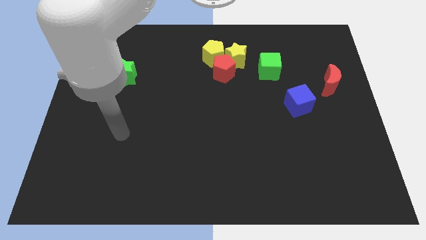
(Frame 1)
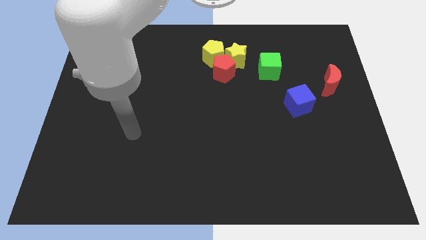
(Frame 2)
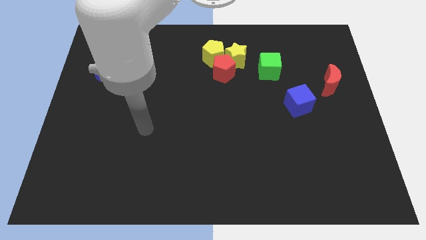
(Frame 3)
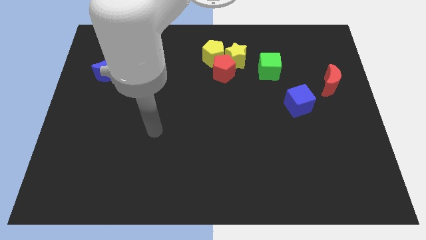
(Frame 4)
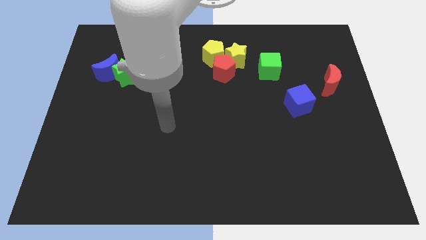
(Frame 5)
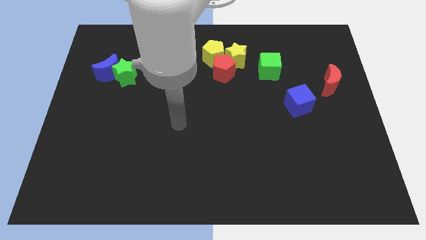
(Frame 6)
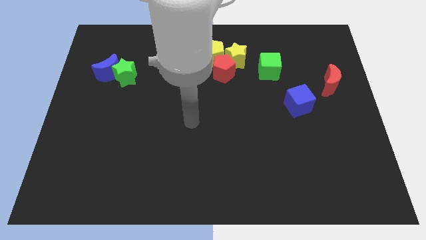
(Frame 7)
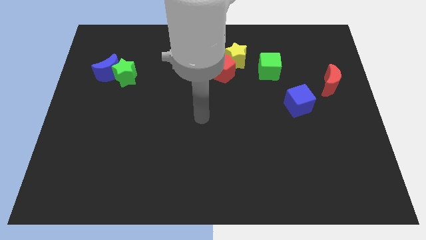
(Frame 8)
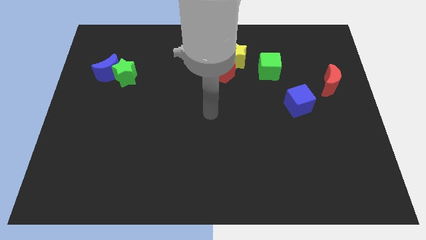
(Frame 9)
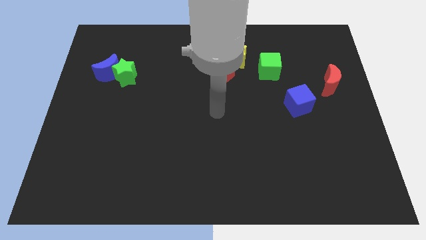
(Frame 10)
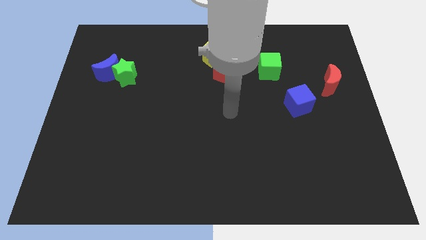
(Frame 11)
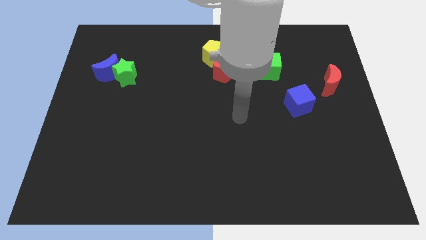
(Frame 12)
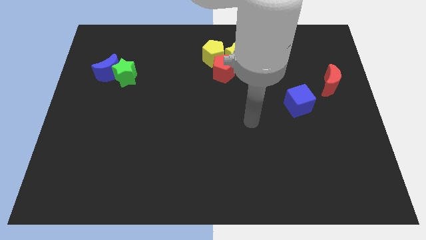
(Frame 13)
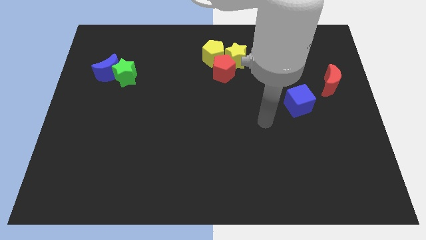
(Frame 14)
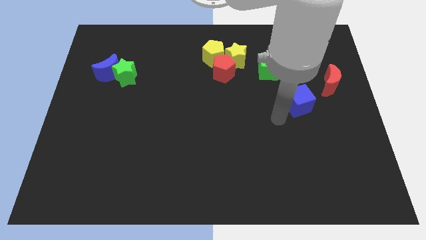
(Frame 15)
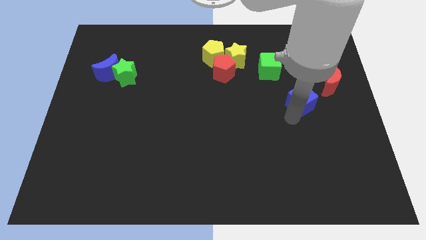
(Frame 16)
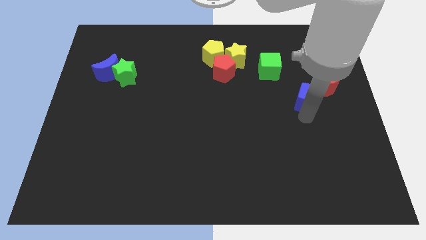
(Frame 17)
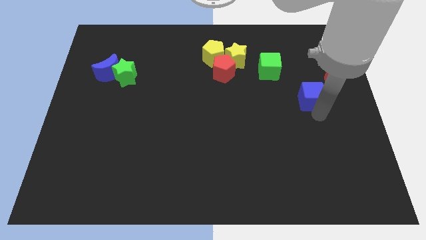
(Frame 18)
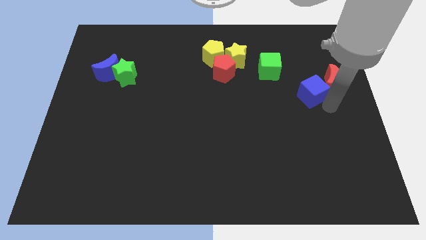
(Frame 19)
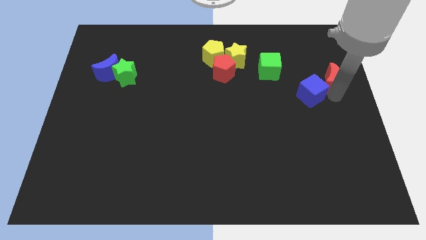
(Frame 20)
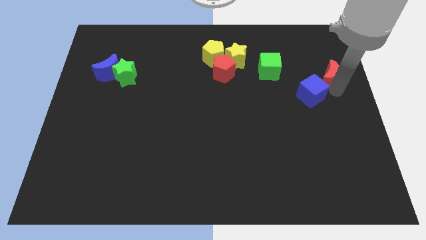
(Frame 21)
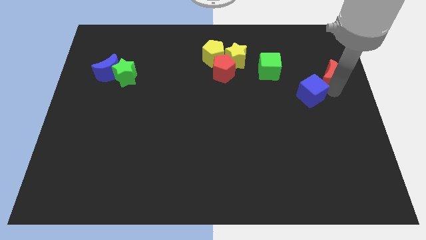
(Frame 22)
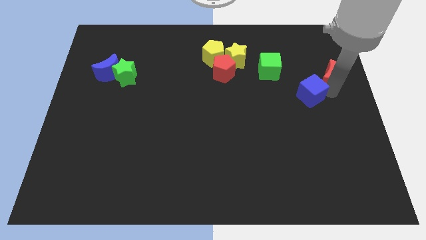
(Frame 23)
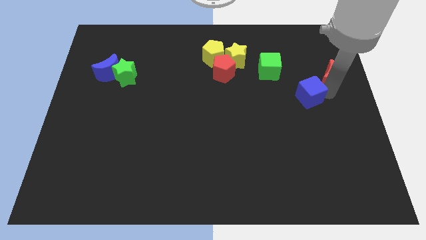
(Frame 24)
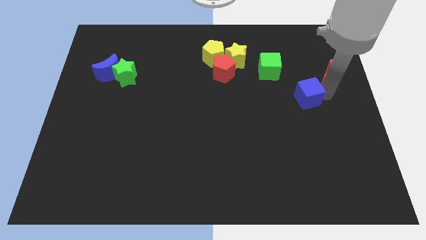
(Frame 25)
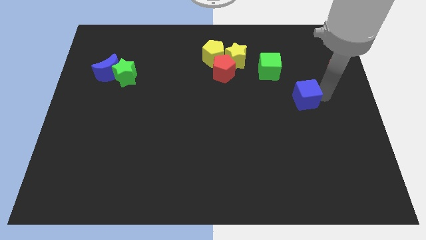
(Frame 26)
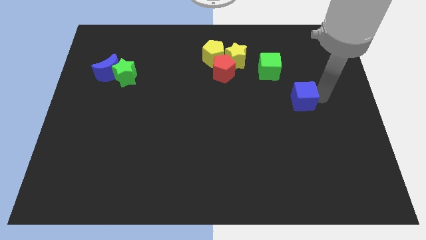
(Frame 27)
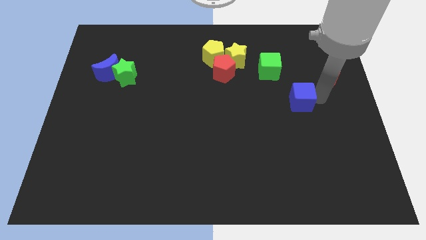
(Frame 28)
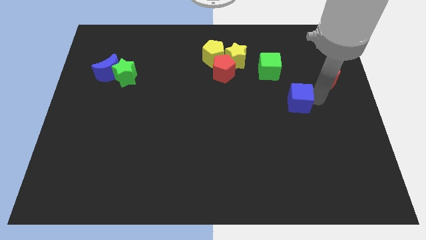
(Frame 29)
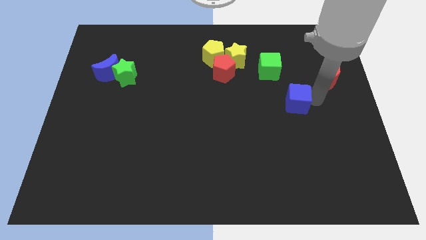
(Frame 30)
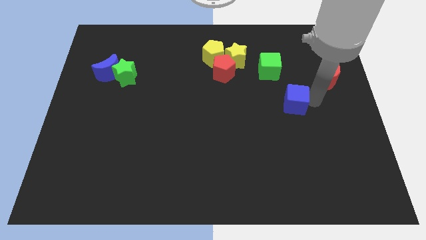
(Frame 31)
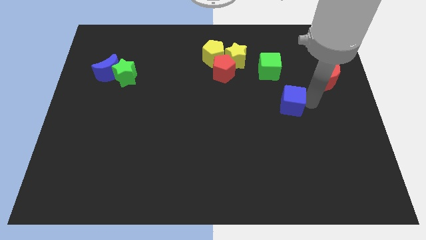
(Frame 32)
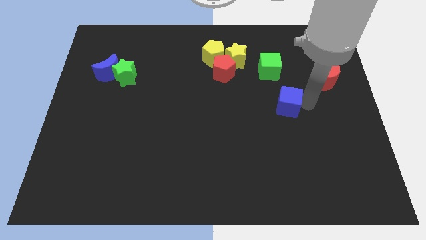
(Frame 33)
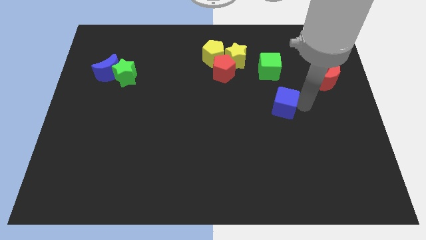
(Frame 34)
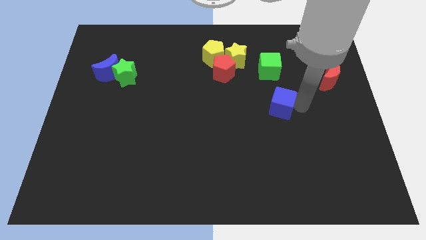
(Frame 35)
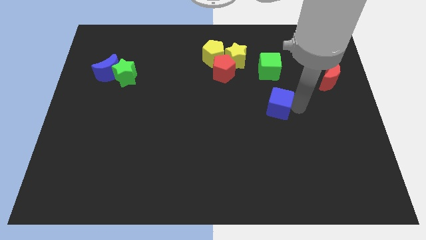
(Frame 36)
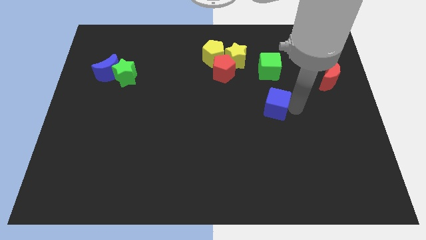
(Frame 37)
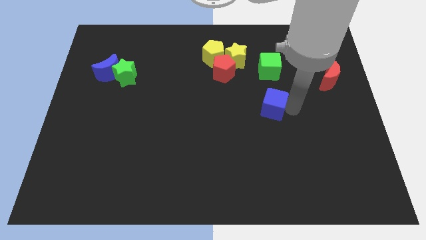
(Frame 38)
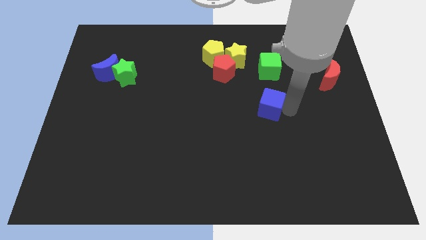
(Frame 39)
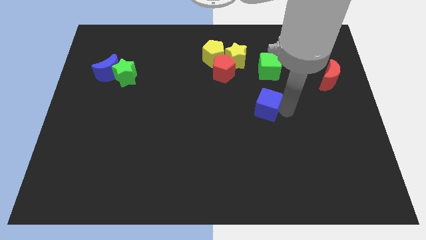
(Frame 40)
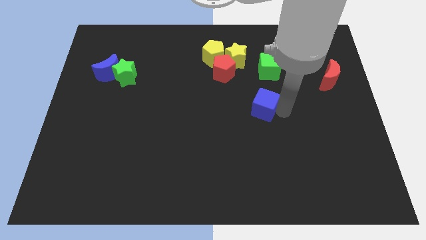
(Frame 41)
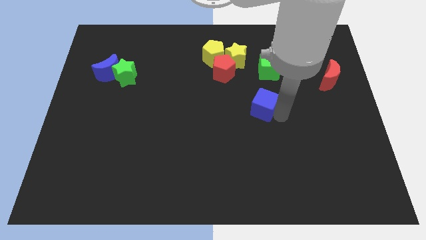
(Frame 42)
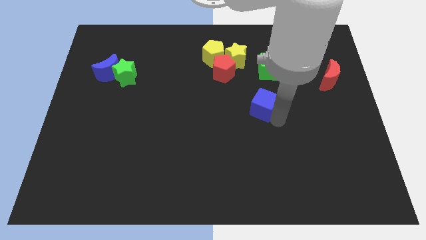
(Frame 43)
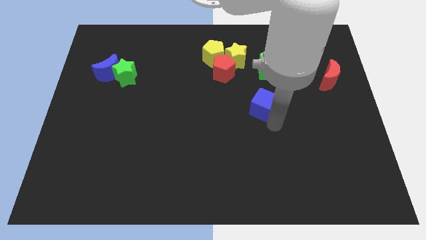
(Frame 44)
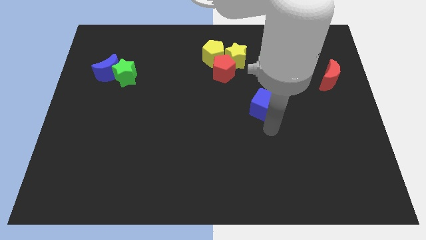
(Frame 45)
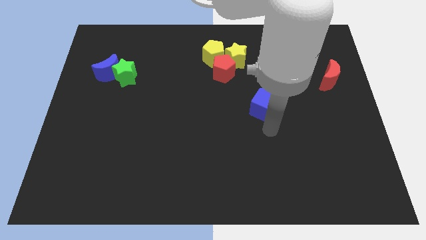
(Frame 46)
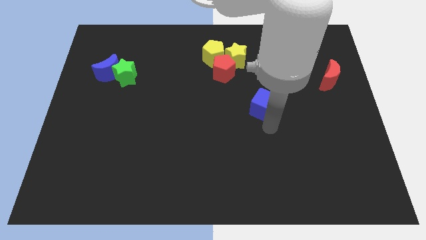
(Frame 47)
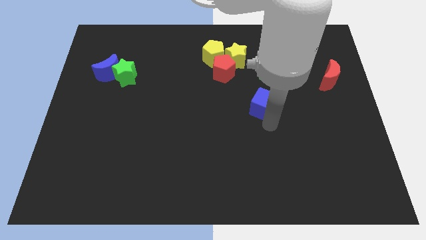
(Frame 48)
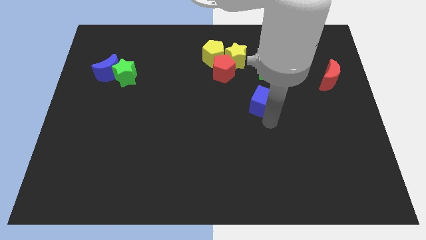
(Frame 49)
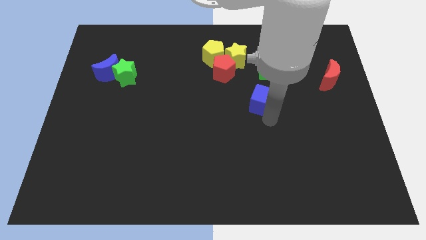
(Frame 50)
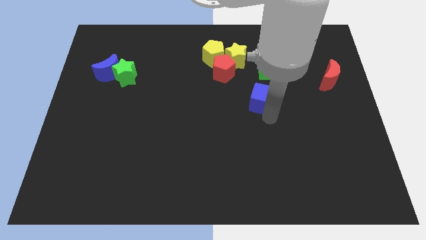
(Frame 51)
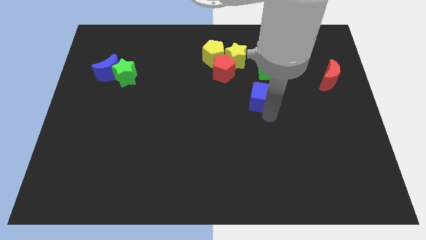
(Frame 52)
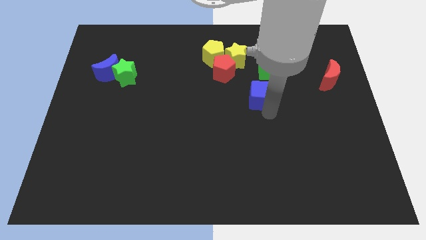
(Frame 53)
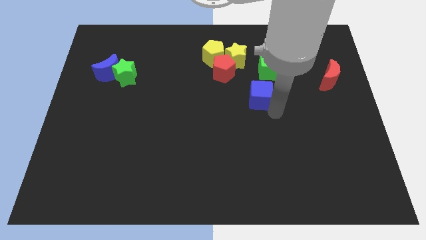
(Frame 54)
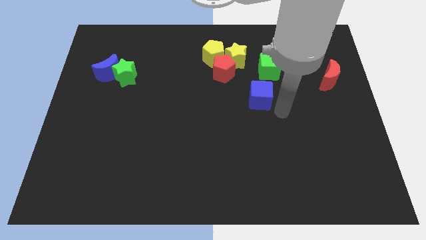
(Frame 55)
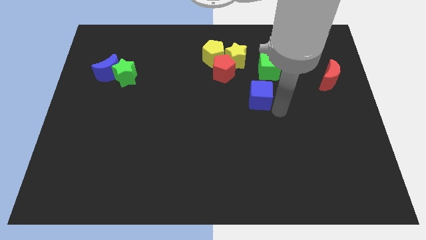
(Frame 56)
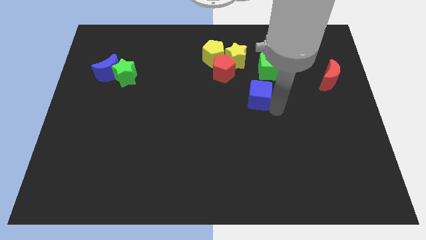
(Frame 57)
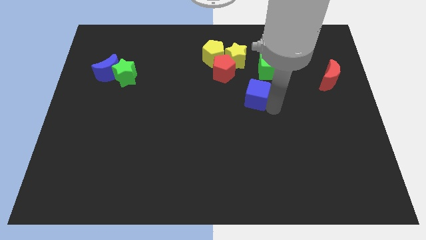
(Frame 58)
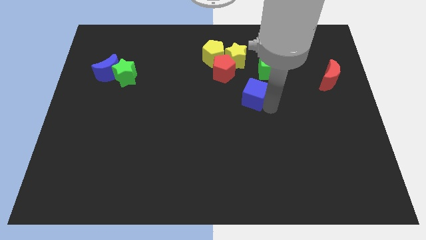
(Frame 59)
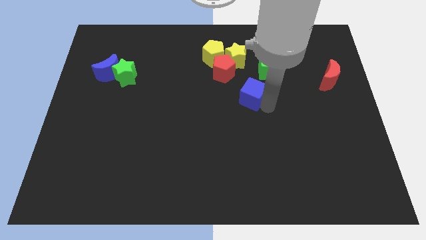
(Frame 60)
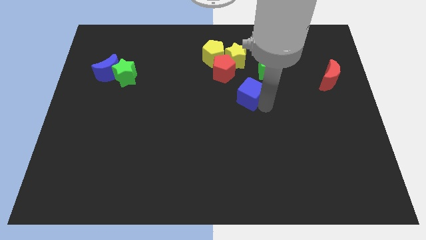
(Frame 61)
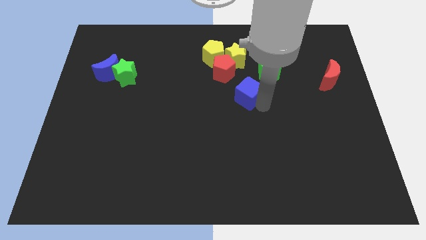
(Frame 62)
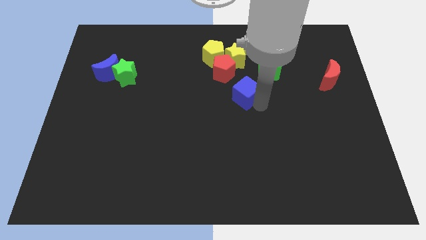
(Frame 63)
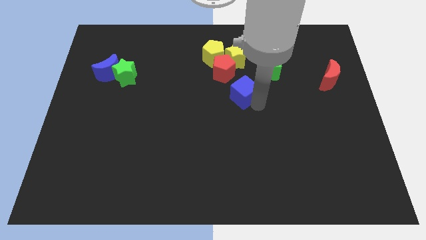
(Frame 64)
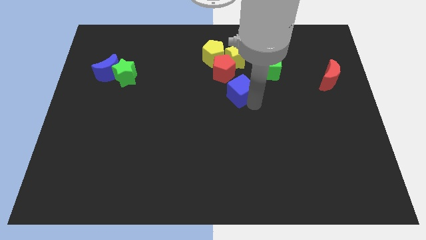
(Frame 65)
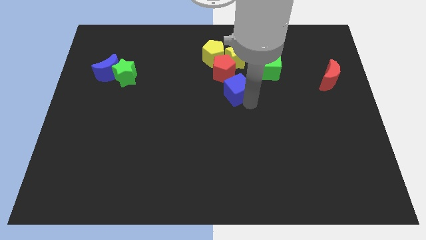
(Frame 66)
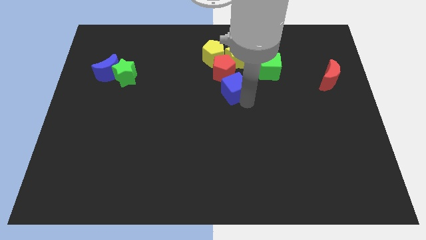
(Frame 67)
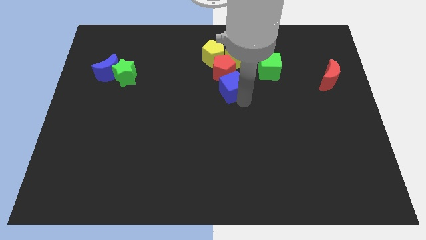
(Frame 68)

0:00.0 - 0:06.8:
put the blue cube towards the red pentagon
